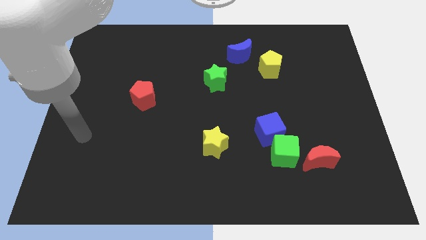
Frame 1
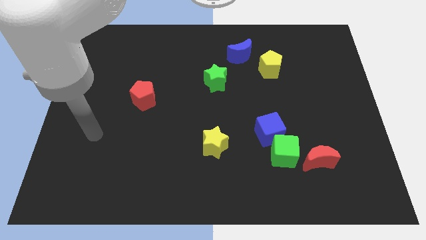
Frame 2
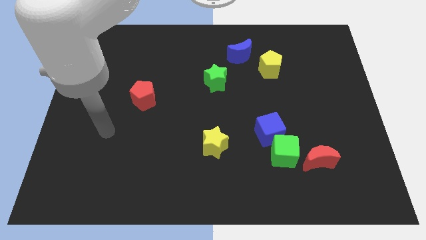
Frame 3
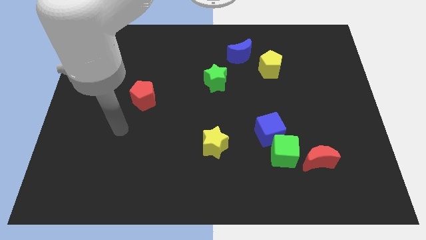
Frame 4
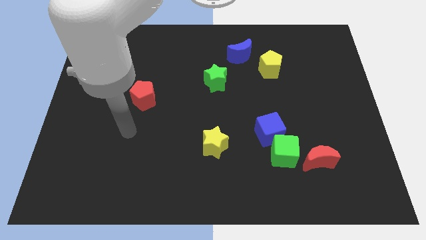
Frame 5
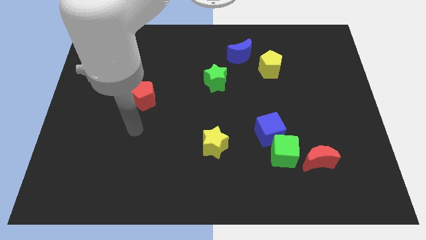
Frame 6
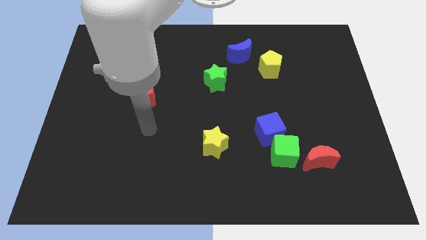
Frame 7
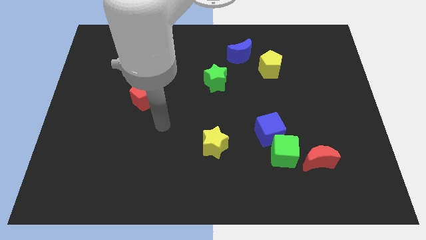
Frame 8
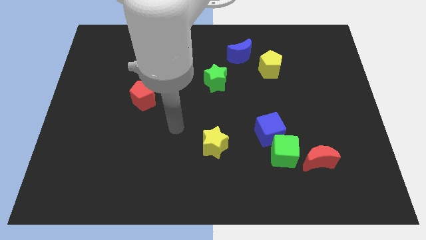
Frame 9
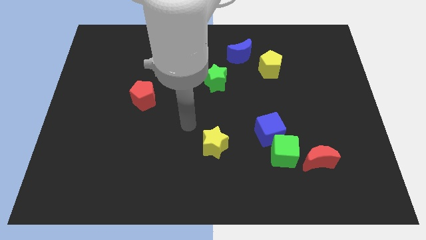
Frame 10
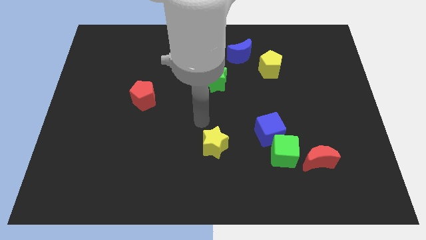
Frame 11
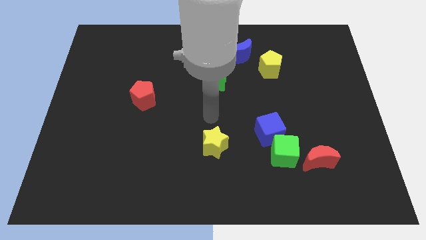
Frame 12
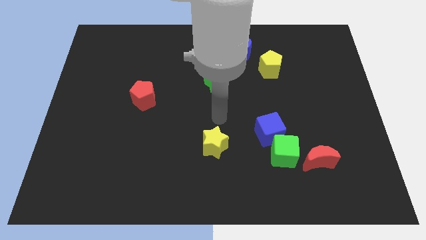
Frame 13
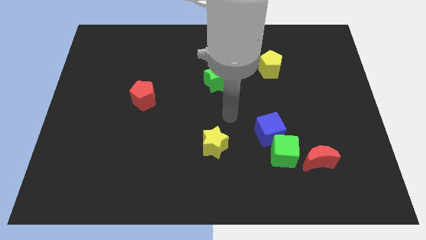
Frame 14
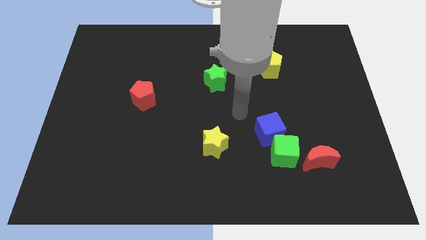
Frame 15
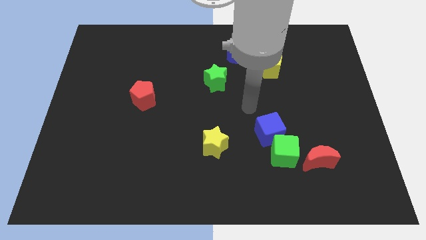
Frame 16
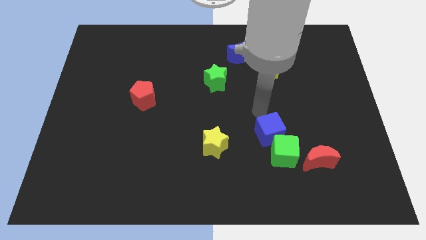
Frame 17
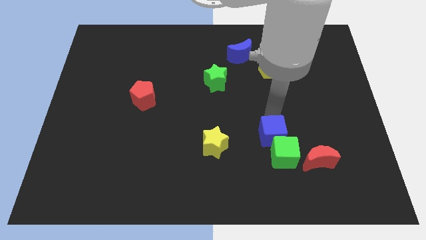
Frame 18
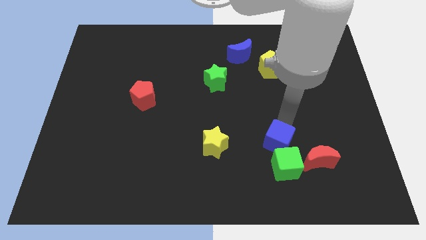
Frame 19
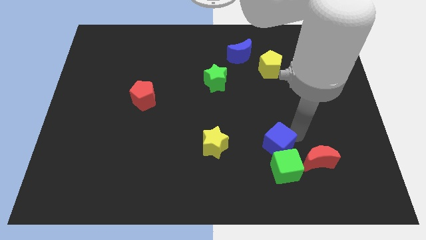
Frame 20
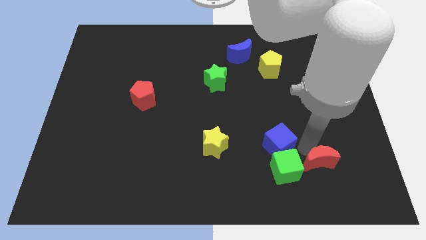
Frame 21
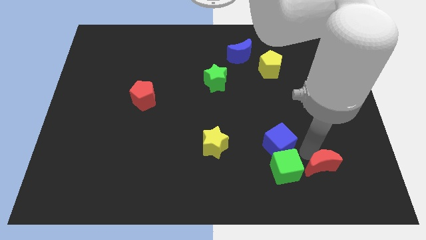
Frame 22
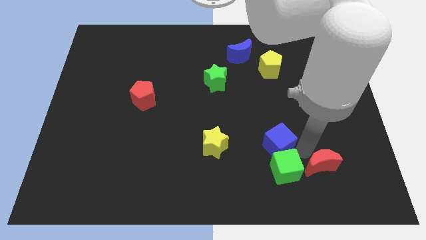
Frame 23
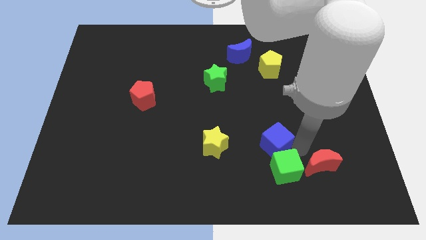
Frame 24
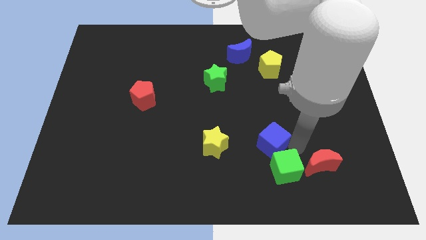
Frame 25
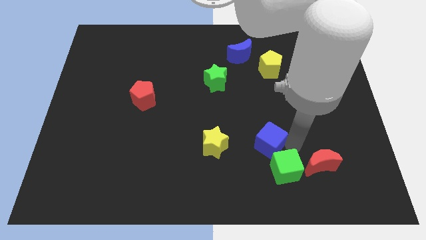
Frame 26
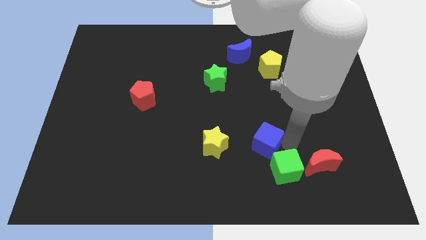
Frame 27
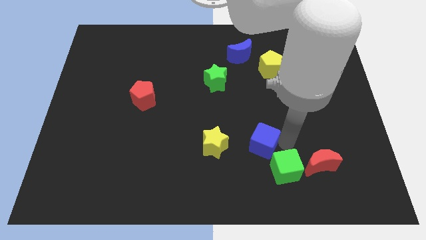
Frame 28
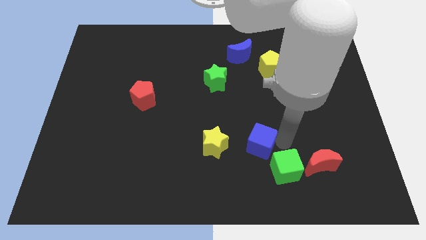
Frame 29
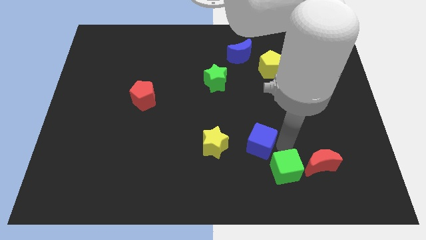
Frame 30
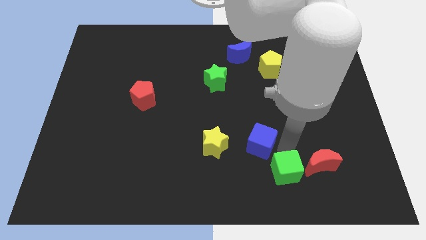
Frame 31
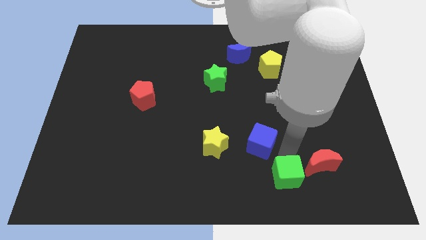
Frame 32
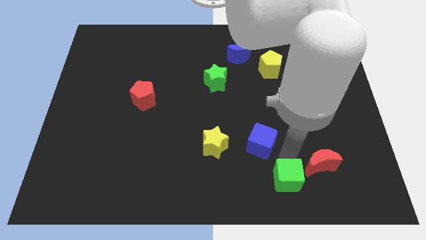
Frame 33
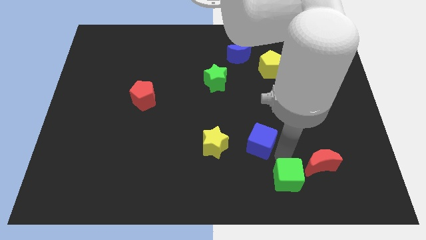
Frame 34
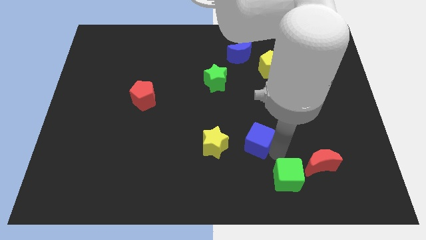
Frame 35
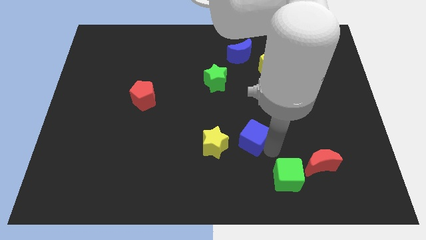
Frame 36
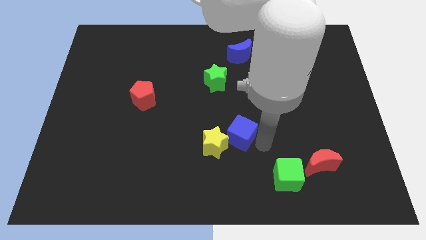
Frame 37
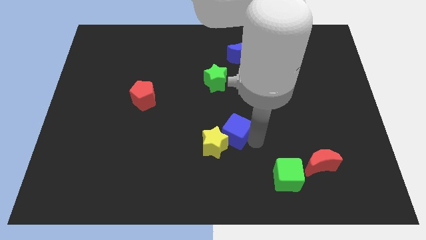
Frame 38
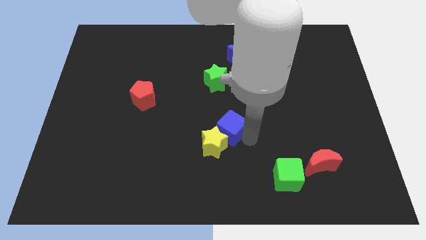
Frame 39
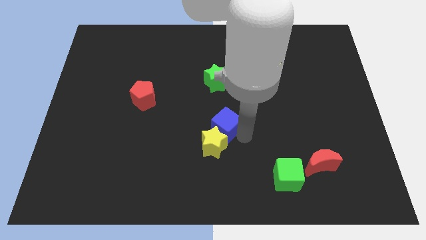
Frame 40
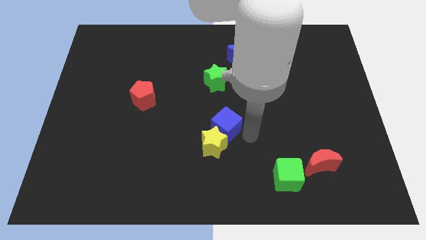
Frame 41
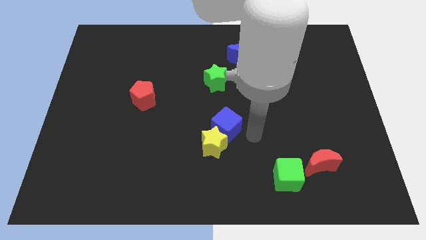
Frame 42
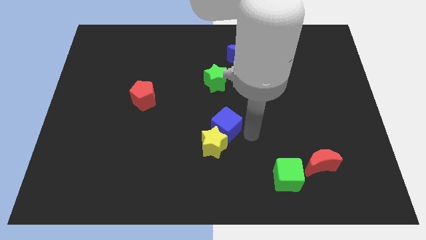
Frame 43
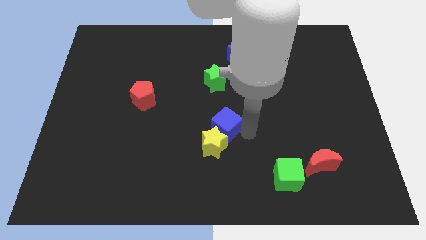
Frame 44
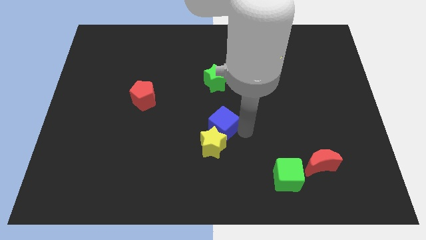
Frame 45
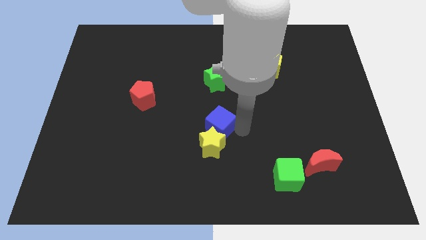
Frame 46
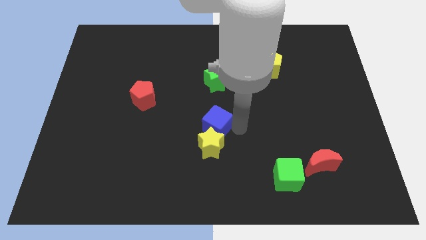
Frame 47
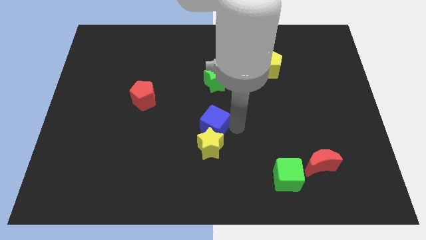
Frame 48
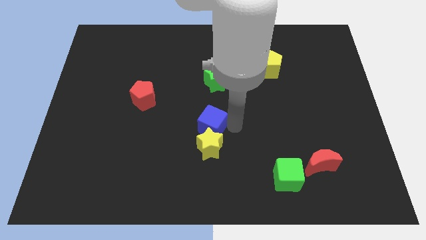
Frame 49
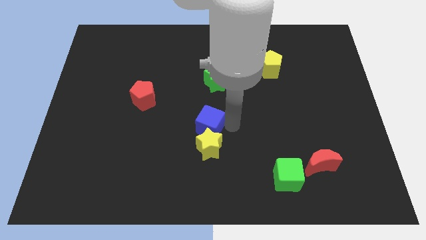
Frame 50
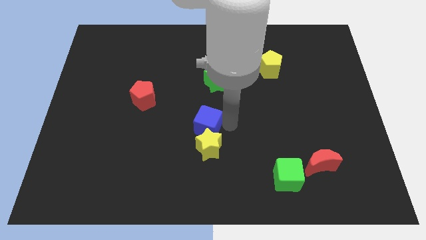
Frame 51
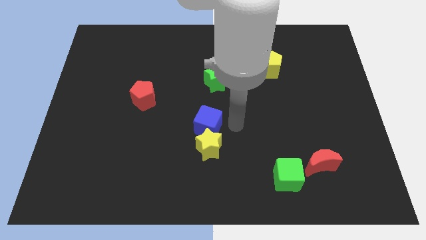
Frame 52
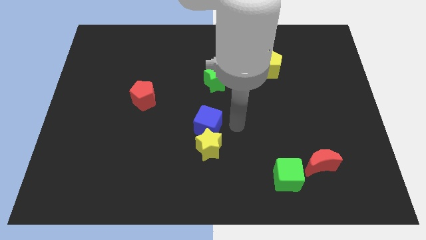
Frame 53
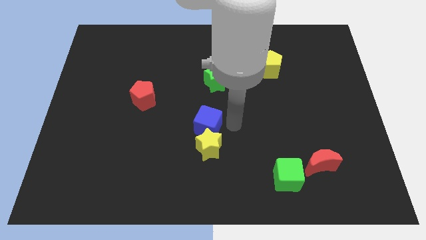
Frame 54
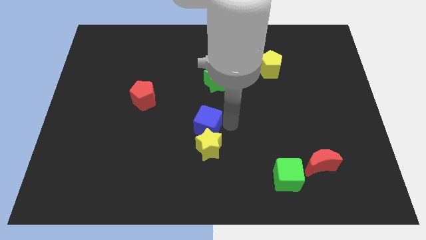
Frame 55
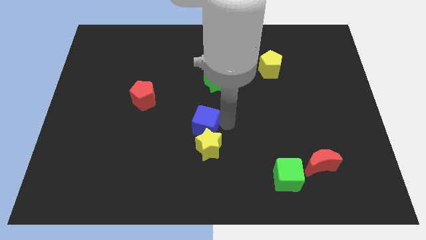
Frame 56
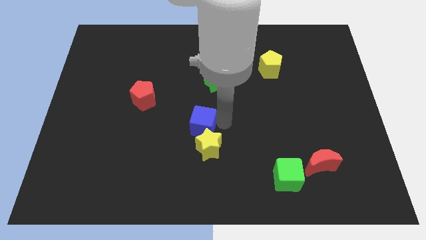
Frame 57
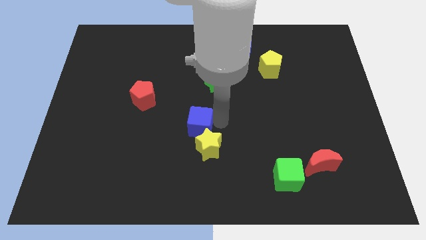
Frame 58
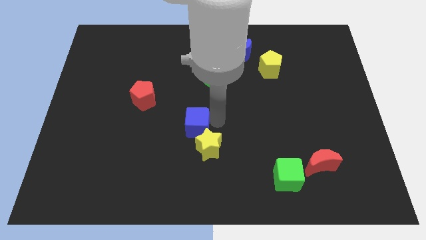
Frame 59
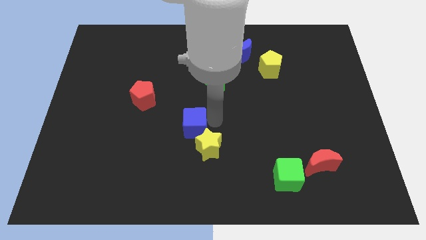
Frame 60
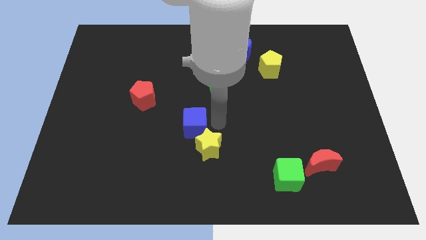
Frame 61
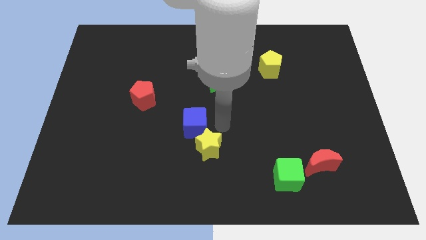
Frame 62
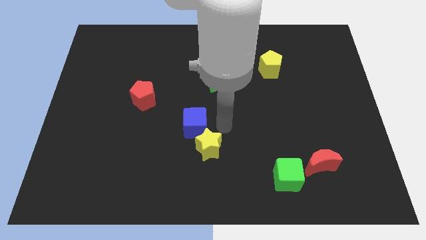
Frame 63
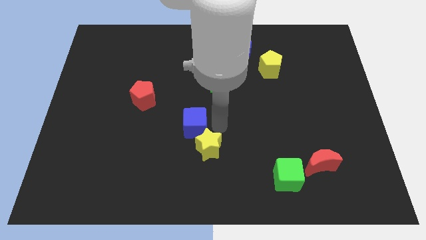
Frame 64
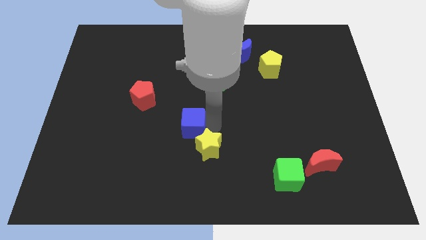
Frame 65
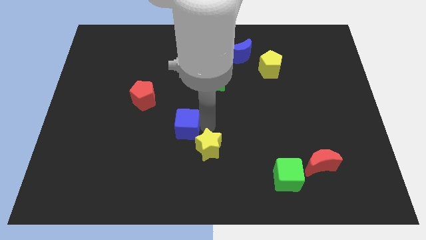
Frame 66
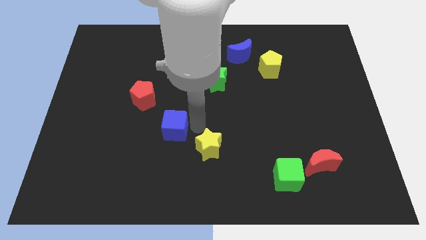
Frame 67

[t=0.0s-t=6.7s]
move the blue cube to the left

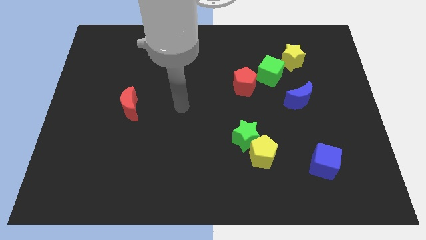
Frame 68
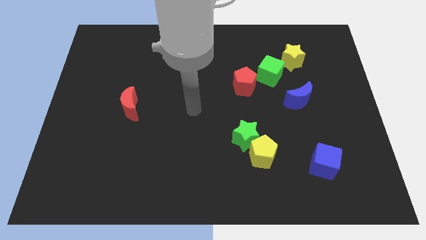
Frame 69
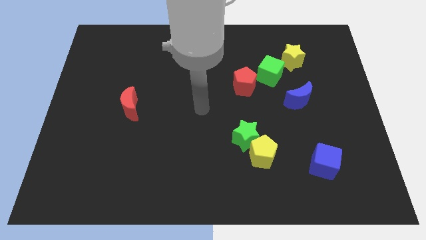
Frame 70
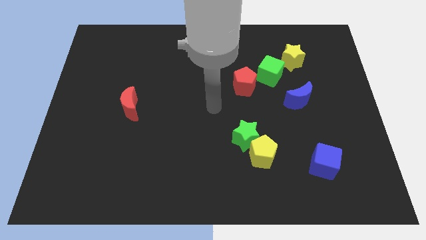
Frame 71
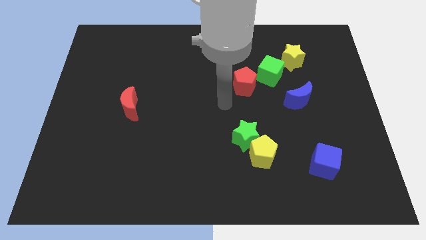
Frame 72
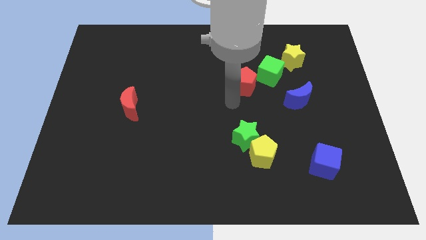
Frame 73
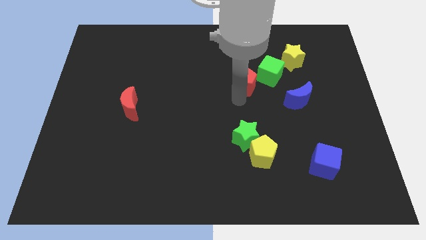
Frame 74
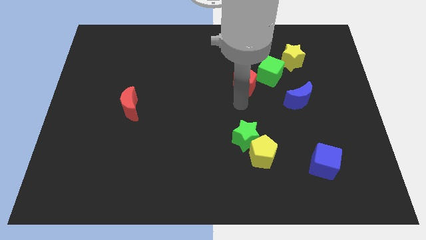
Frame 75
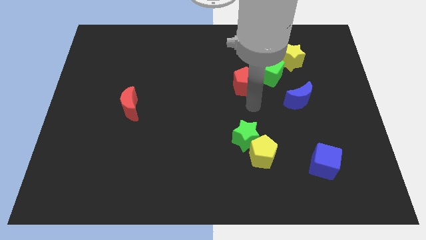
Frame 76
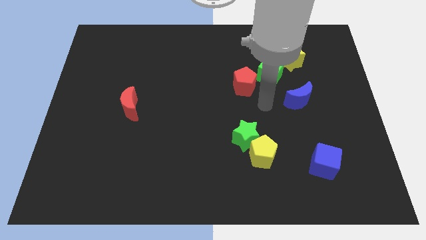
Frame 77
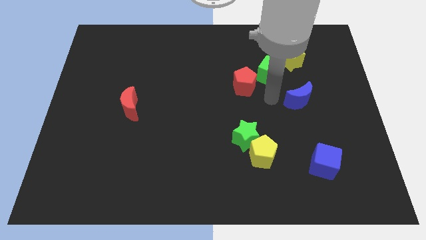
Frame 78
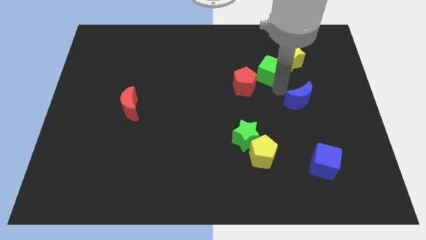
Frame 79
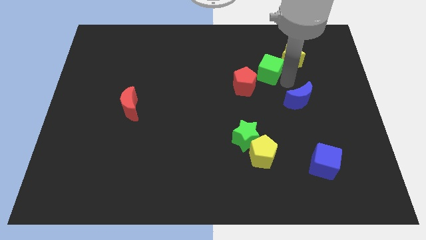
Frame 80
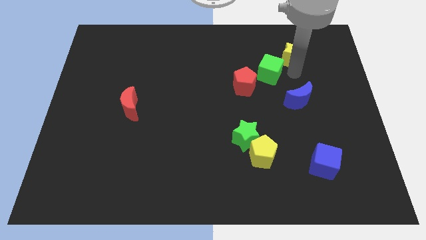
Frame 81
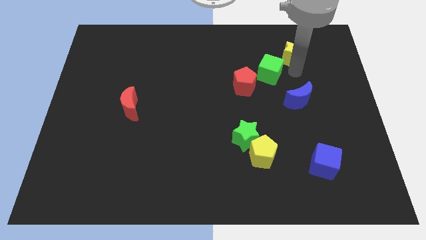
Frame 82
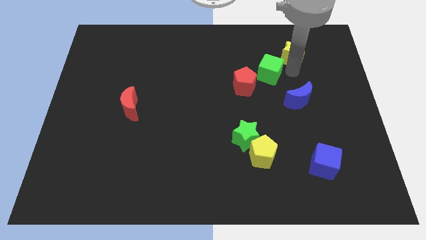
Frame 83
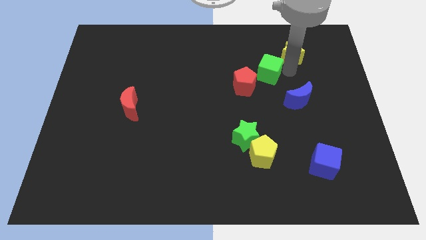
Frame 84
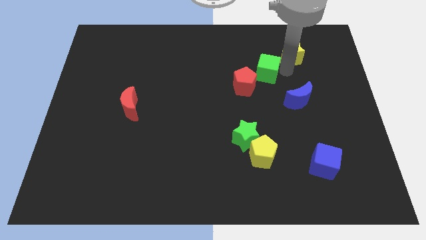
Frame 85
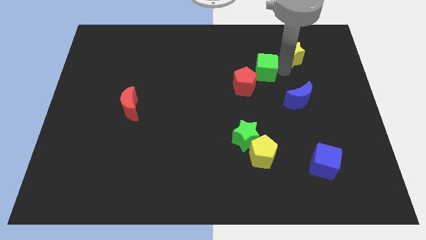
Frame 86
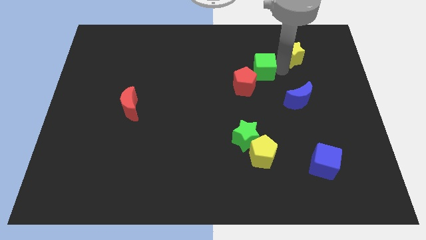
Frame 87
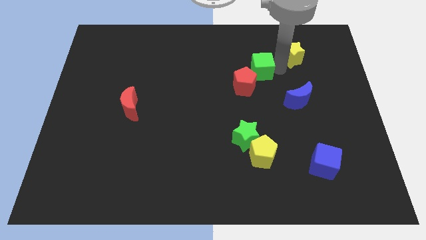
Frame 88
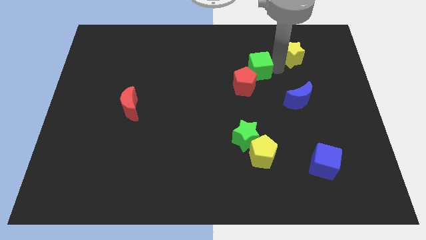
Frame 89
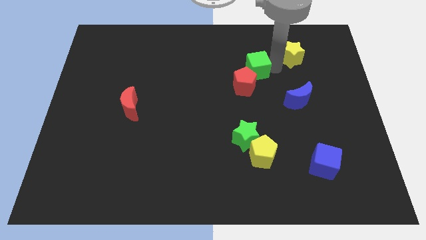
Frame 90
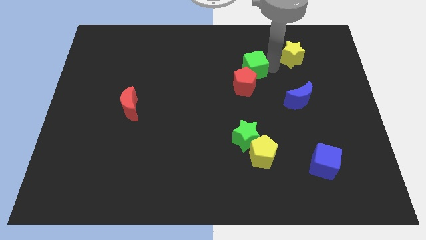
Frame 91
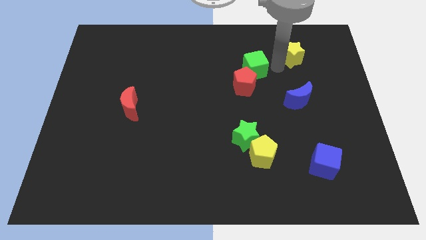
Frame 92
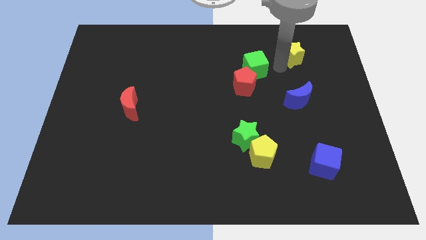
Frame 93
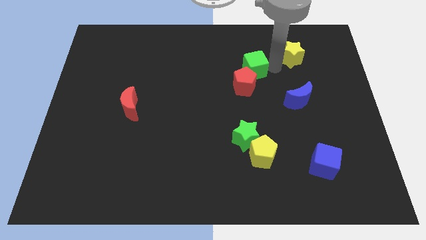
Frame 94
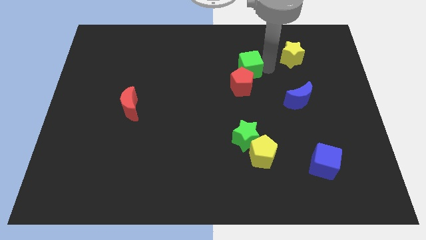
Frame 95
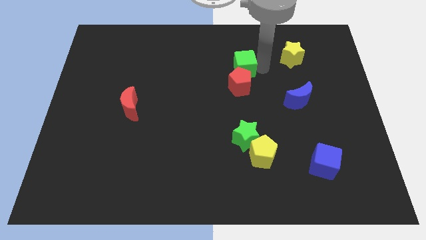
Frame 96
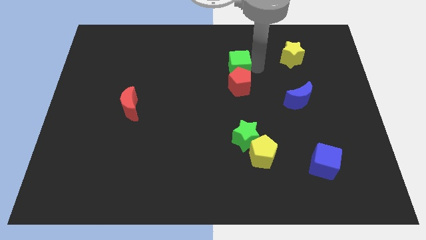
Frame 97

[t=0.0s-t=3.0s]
move the green cube a little bit to the left
